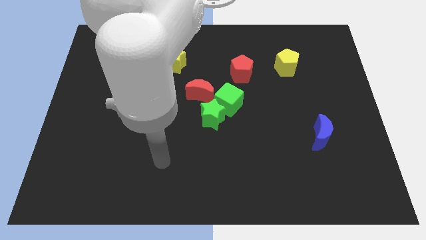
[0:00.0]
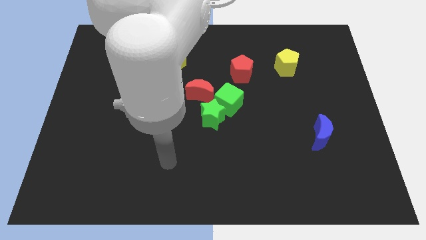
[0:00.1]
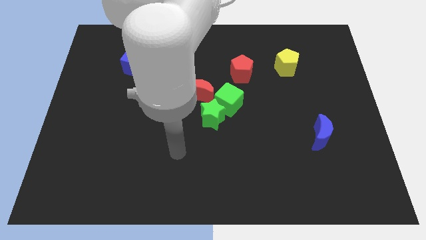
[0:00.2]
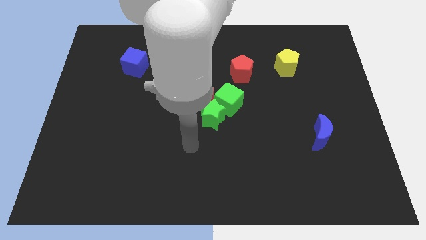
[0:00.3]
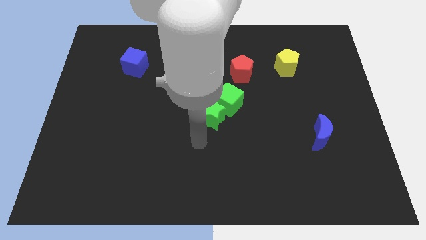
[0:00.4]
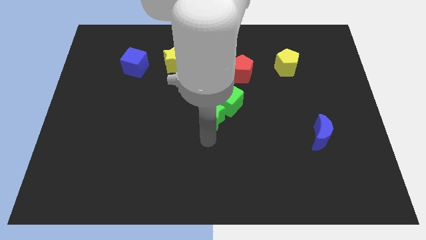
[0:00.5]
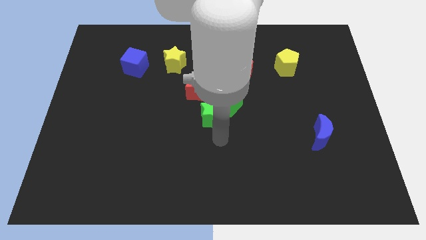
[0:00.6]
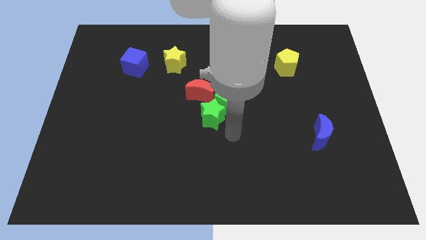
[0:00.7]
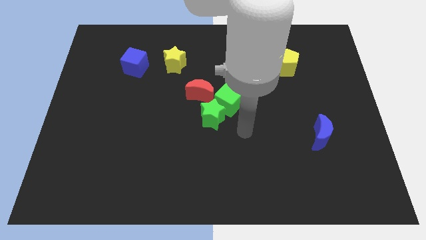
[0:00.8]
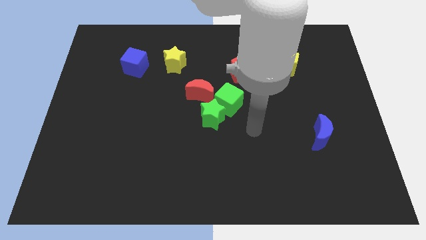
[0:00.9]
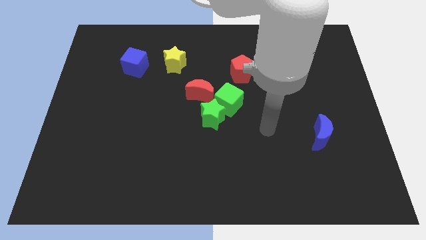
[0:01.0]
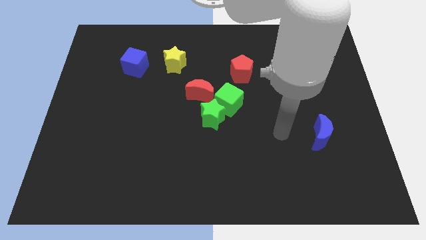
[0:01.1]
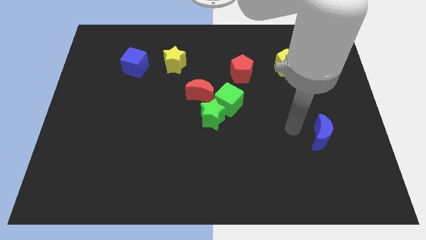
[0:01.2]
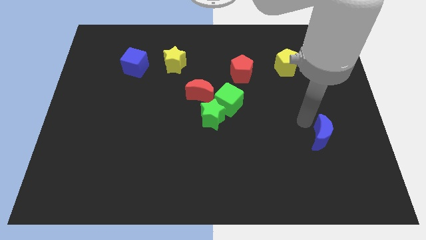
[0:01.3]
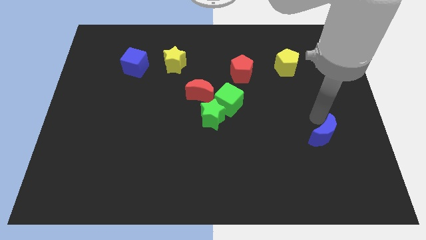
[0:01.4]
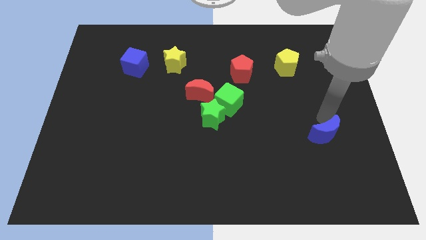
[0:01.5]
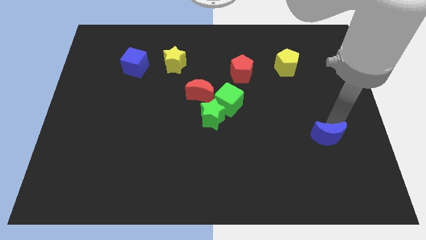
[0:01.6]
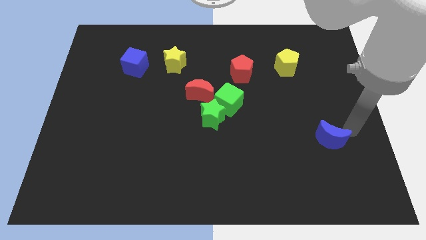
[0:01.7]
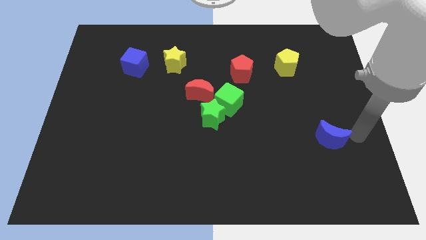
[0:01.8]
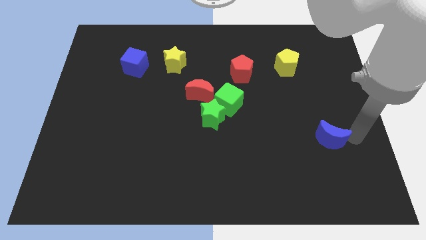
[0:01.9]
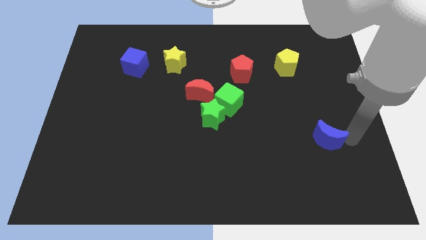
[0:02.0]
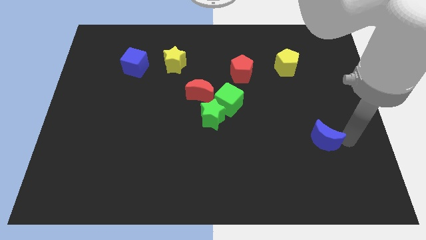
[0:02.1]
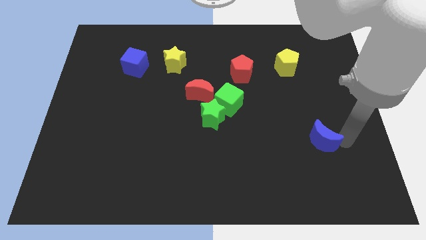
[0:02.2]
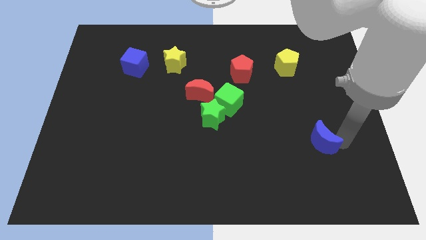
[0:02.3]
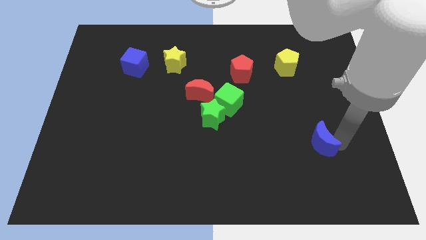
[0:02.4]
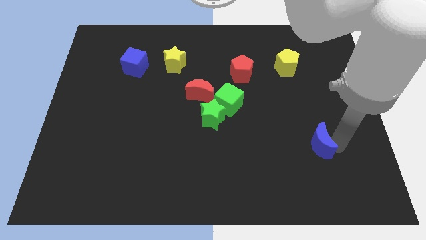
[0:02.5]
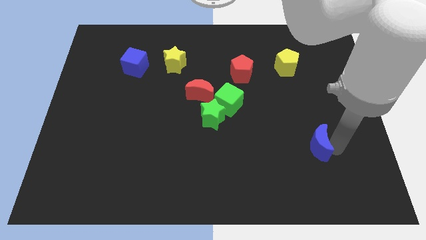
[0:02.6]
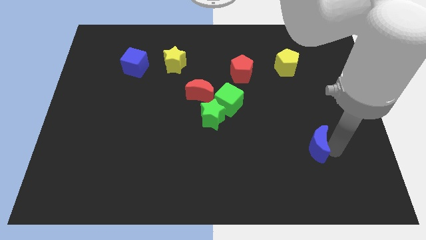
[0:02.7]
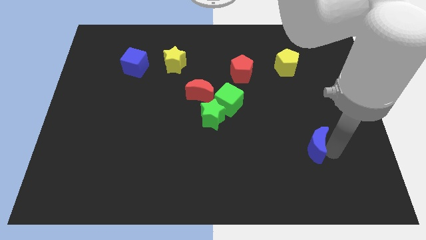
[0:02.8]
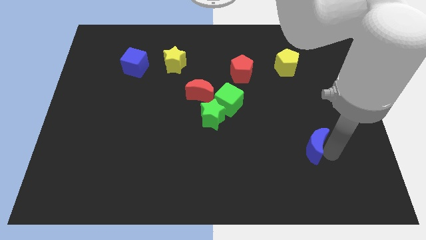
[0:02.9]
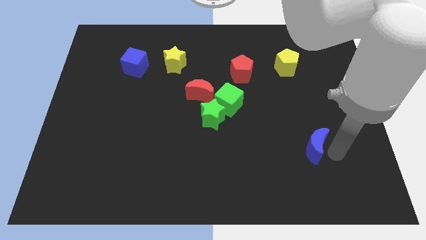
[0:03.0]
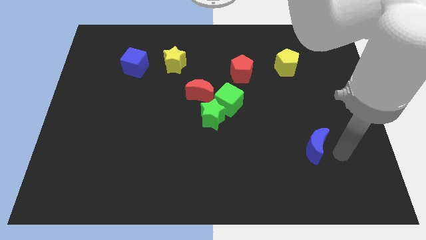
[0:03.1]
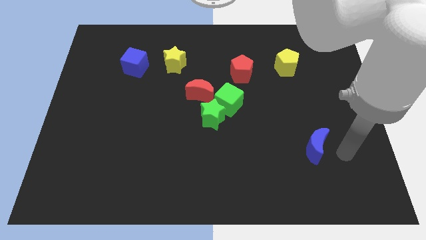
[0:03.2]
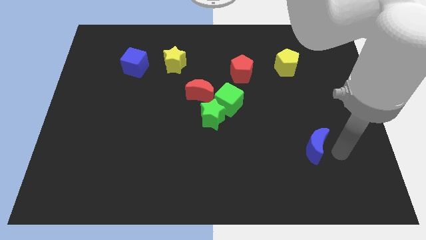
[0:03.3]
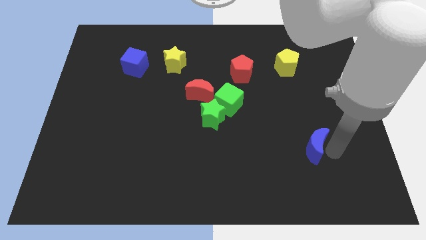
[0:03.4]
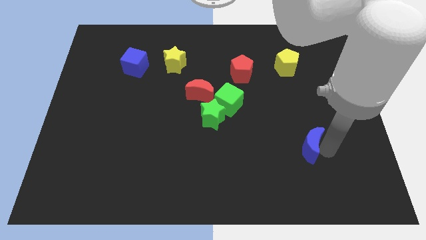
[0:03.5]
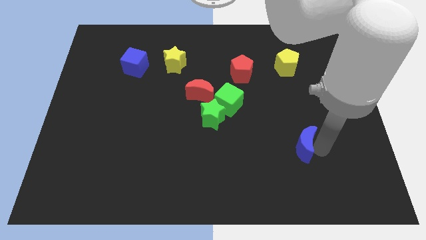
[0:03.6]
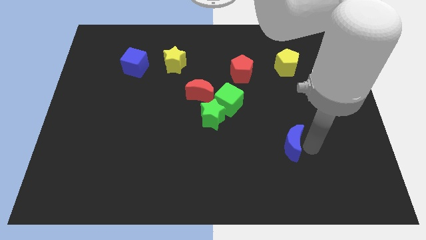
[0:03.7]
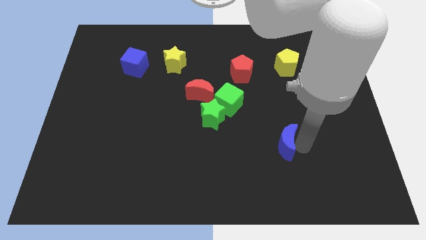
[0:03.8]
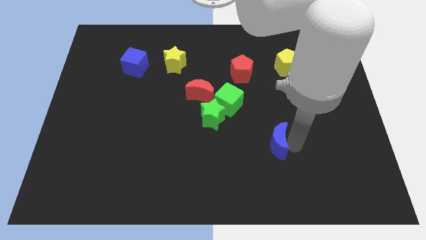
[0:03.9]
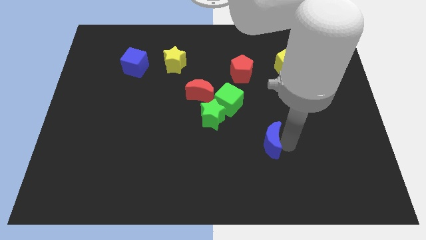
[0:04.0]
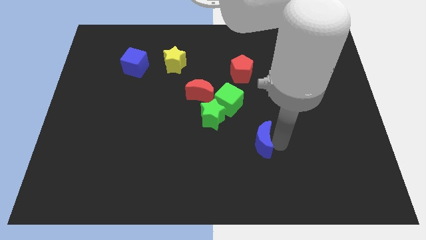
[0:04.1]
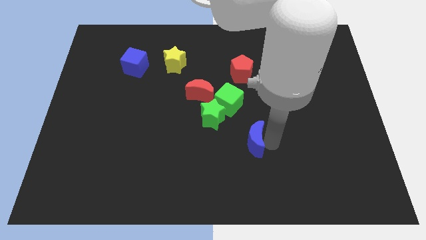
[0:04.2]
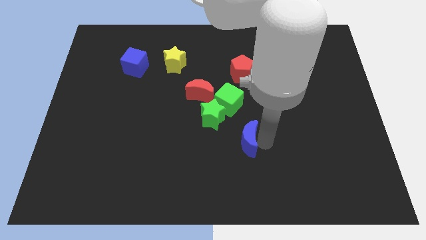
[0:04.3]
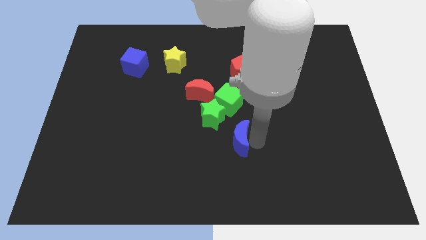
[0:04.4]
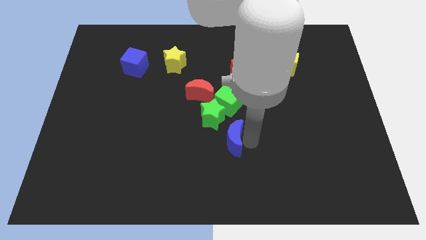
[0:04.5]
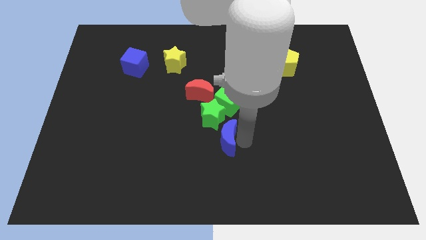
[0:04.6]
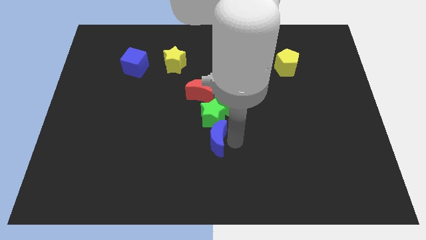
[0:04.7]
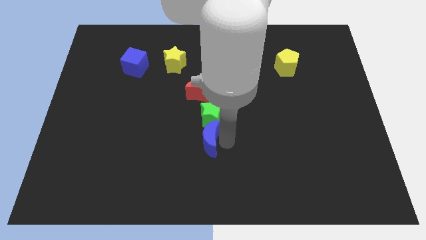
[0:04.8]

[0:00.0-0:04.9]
slide the blue moon to the bottom left side of the green star

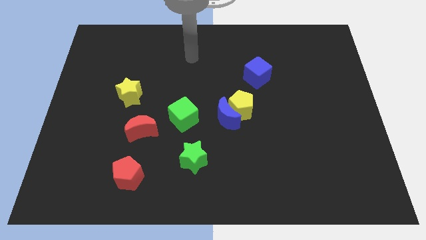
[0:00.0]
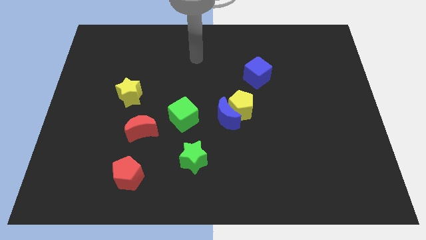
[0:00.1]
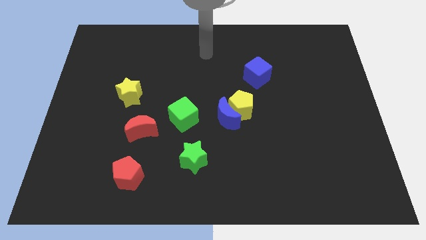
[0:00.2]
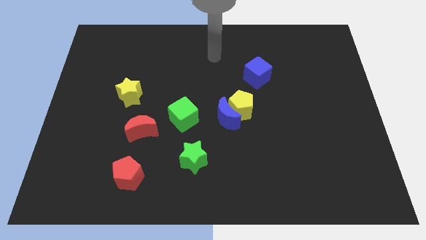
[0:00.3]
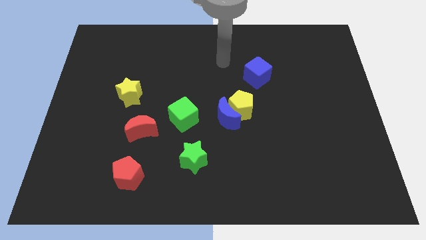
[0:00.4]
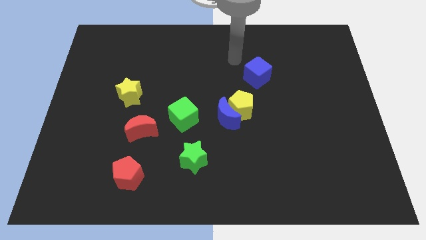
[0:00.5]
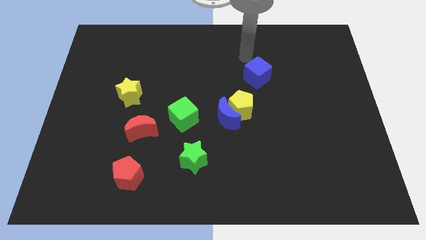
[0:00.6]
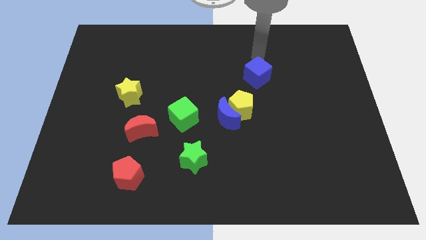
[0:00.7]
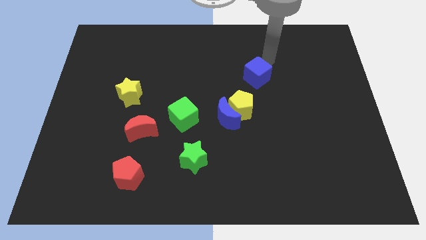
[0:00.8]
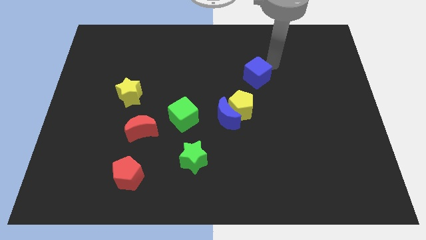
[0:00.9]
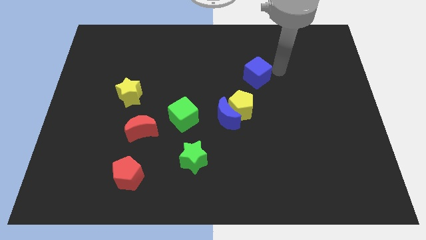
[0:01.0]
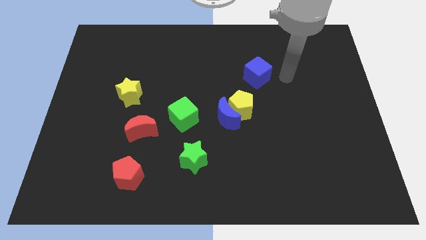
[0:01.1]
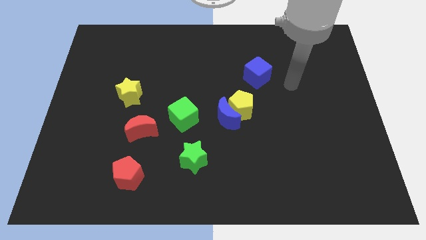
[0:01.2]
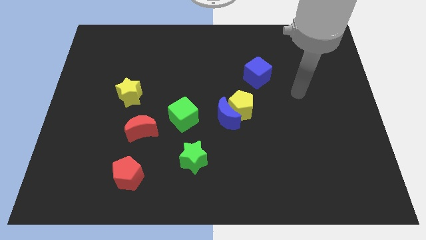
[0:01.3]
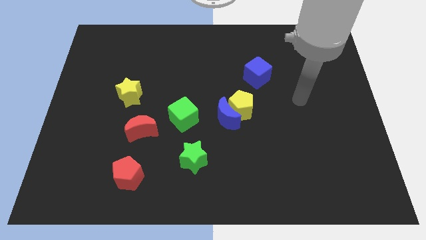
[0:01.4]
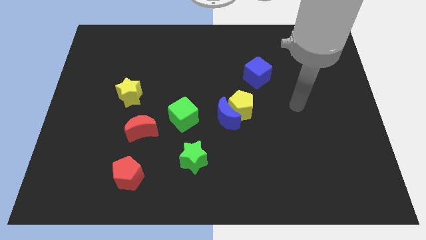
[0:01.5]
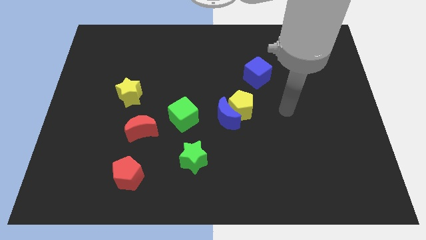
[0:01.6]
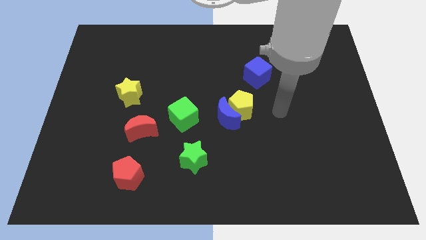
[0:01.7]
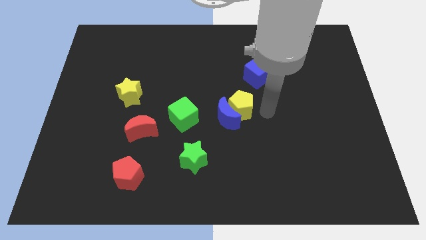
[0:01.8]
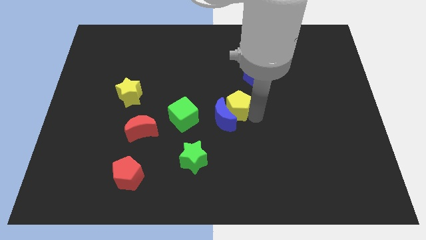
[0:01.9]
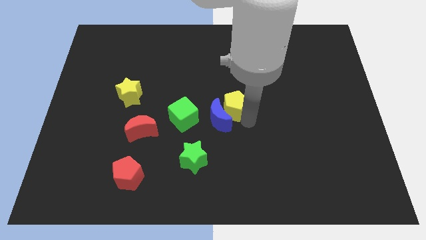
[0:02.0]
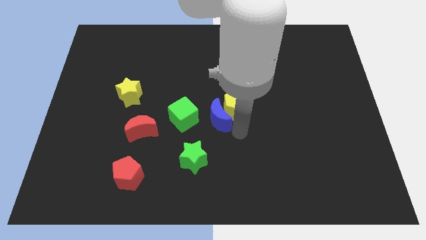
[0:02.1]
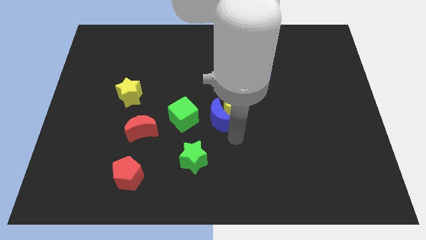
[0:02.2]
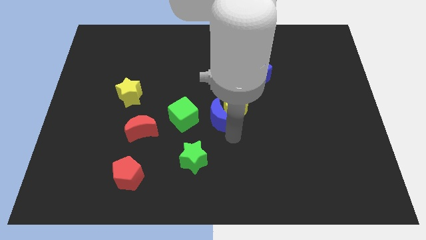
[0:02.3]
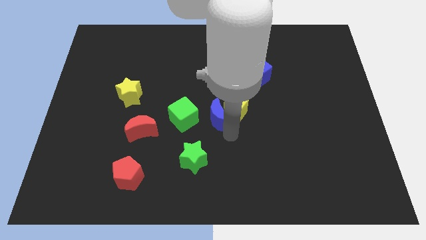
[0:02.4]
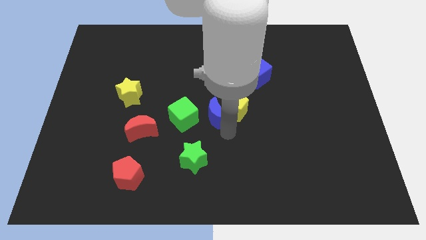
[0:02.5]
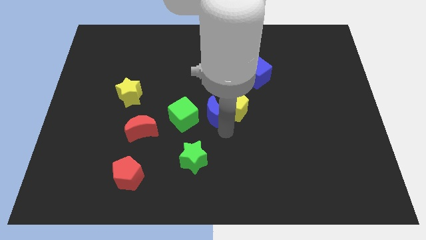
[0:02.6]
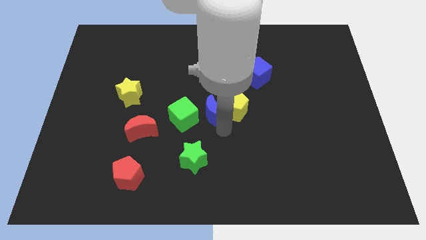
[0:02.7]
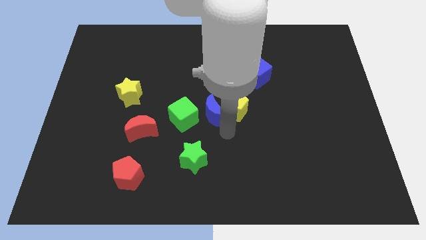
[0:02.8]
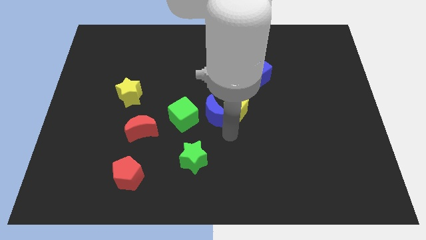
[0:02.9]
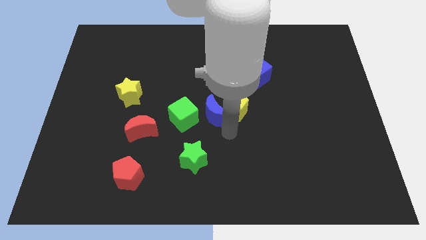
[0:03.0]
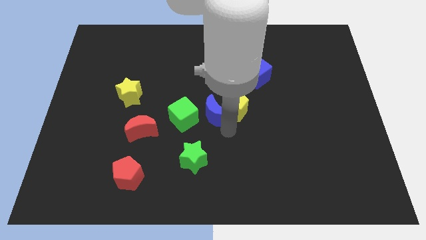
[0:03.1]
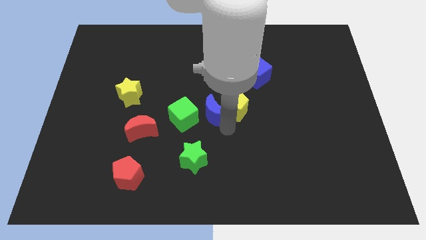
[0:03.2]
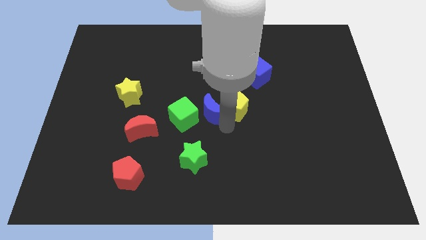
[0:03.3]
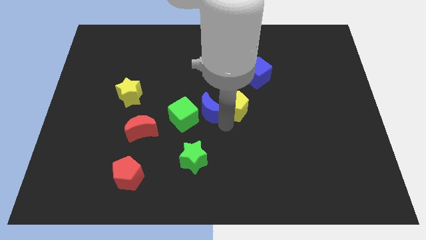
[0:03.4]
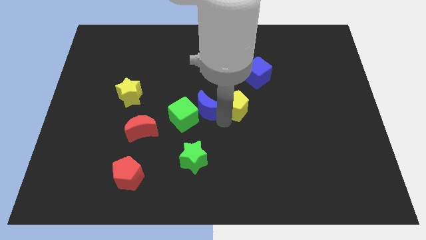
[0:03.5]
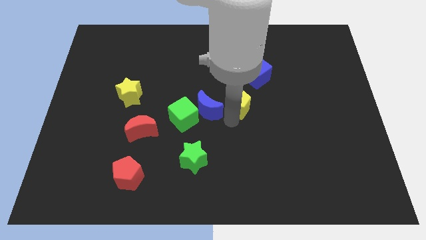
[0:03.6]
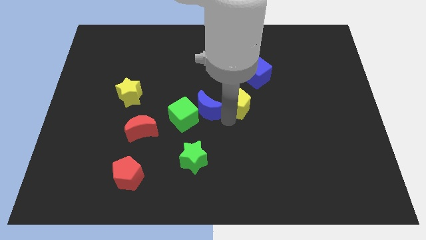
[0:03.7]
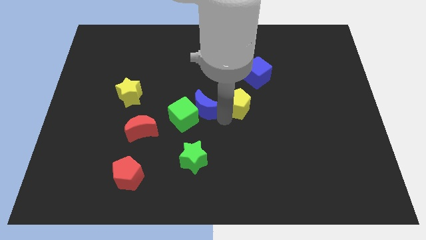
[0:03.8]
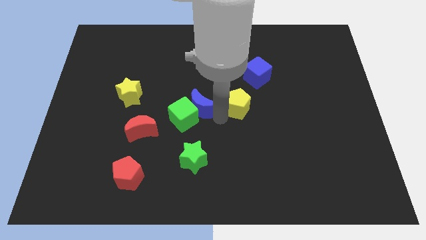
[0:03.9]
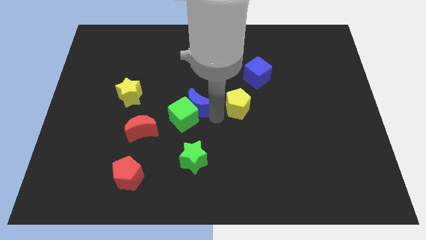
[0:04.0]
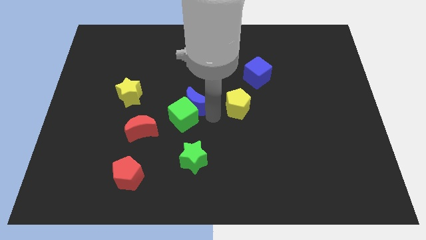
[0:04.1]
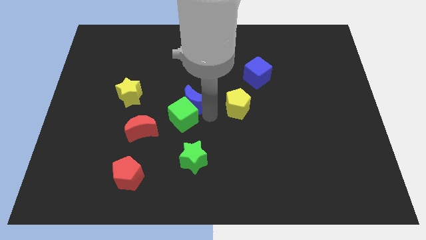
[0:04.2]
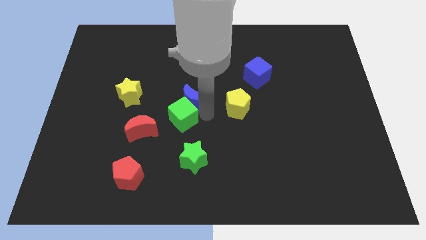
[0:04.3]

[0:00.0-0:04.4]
slide the blue moon right of the yellow star
